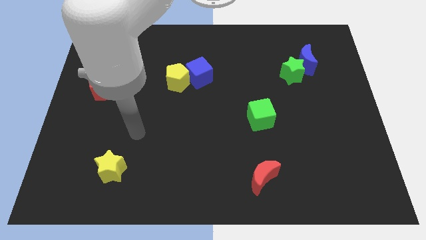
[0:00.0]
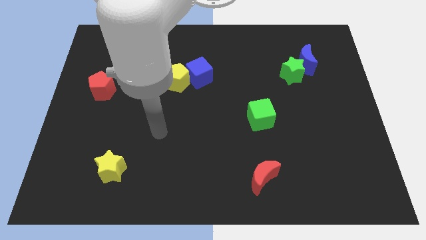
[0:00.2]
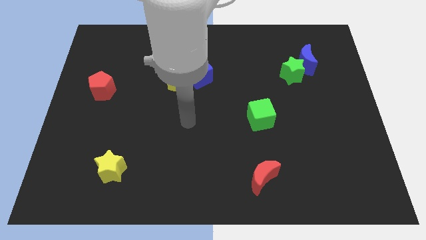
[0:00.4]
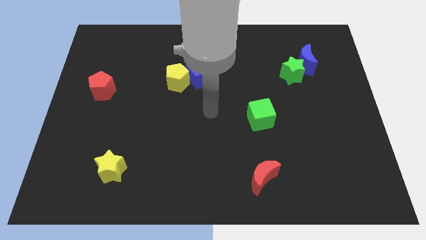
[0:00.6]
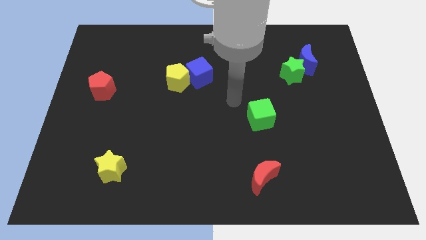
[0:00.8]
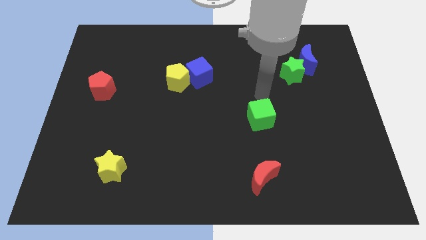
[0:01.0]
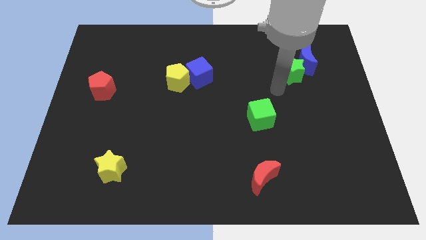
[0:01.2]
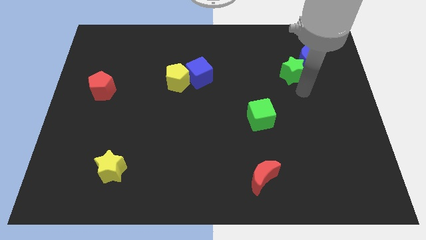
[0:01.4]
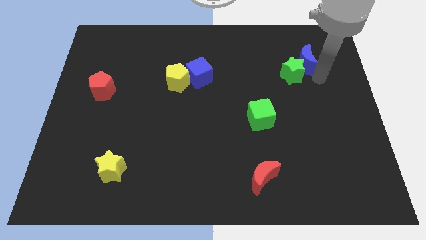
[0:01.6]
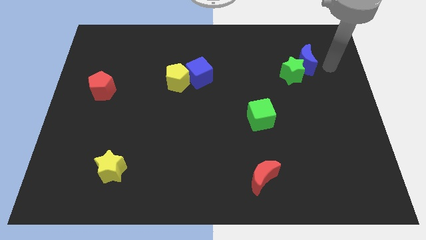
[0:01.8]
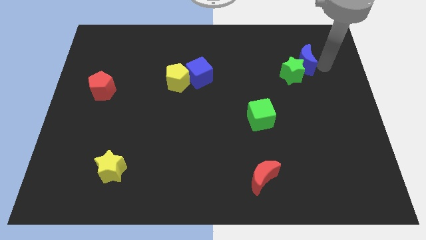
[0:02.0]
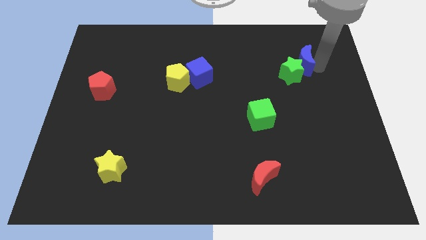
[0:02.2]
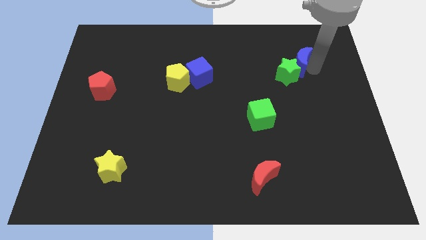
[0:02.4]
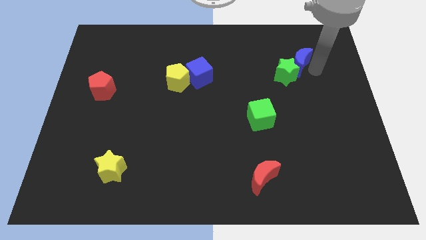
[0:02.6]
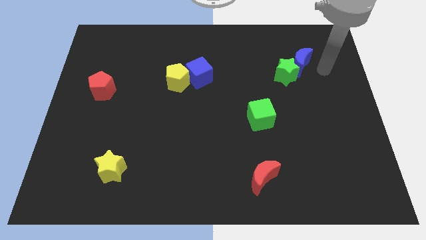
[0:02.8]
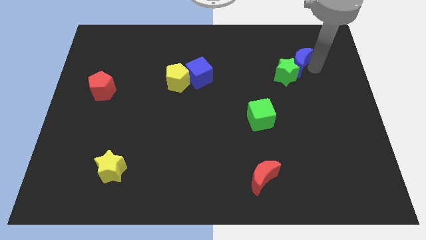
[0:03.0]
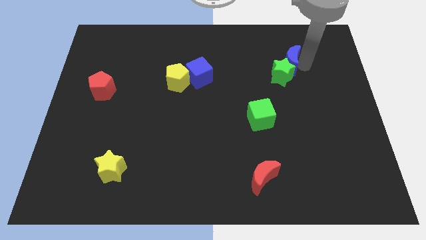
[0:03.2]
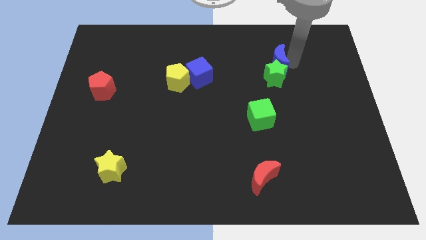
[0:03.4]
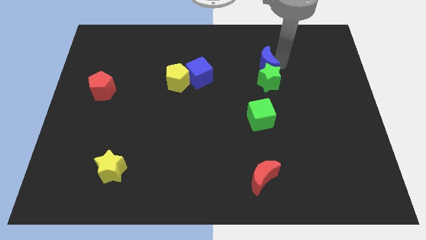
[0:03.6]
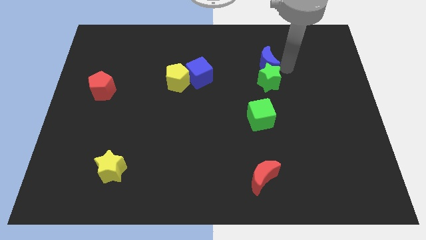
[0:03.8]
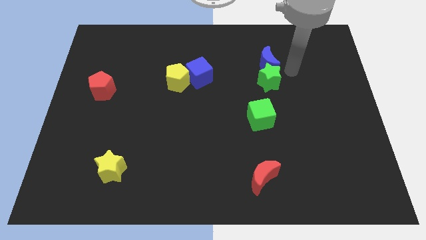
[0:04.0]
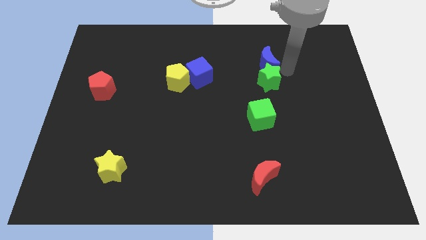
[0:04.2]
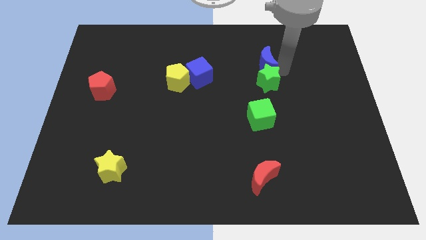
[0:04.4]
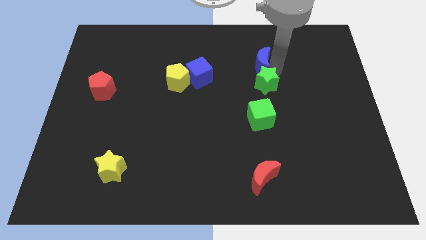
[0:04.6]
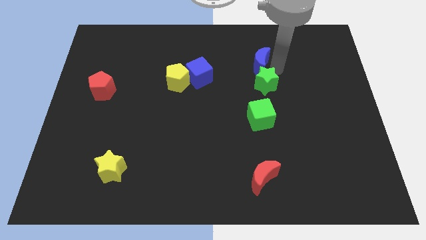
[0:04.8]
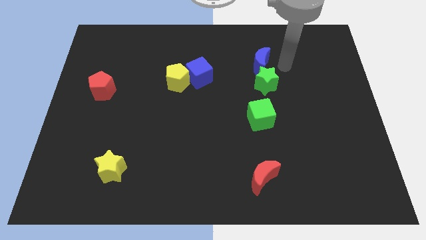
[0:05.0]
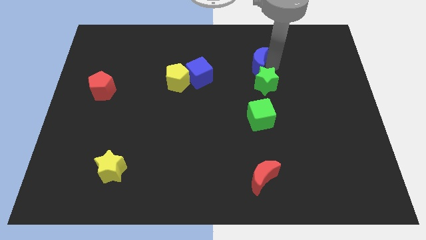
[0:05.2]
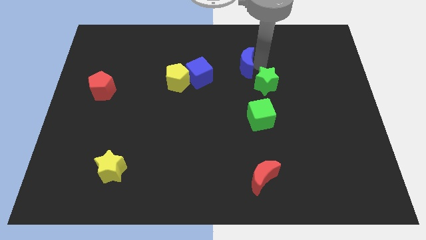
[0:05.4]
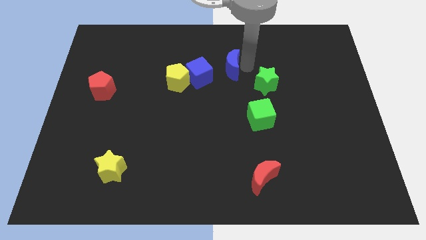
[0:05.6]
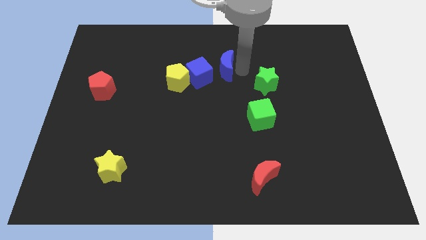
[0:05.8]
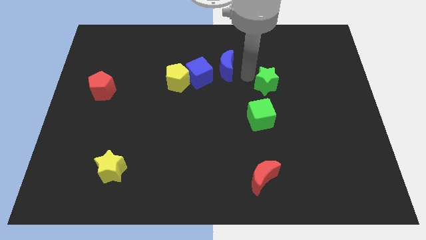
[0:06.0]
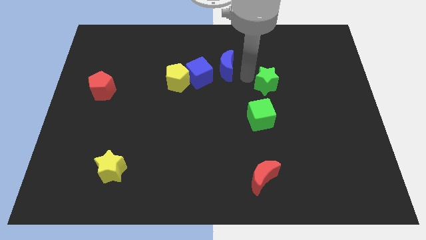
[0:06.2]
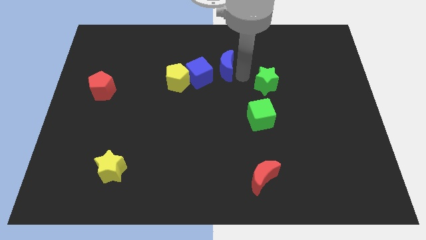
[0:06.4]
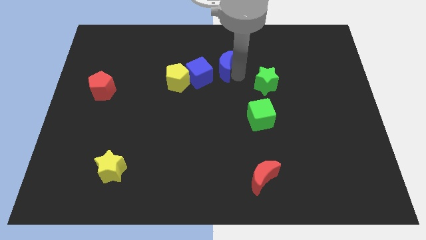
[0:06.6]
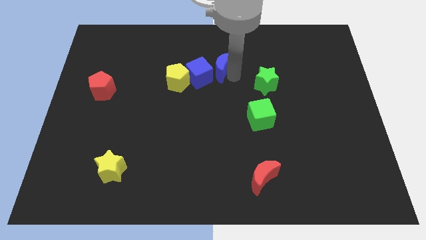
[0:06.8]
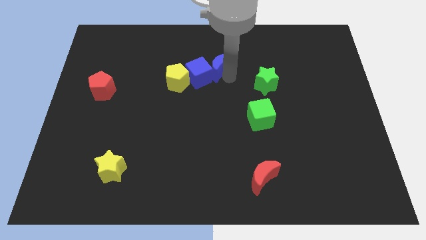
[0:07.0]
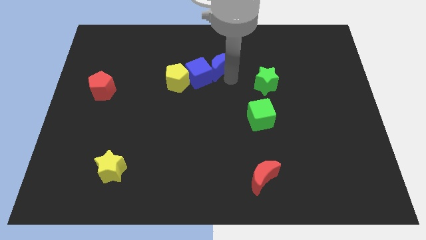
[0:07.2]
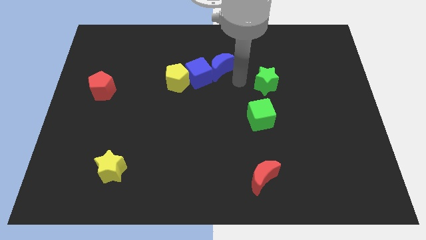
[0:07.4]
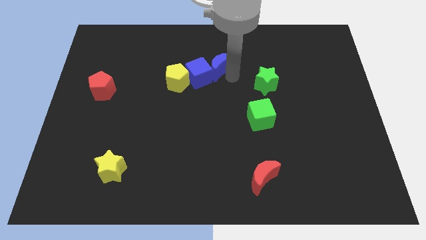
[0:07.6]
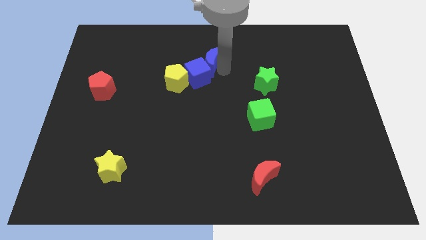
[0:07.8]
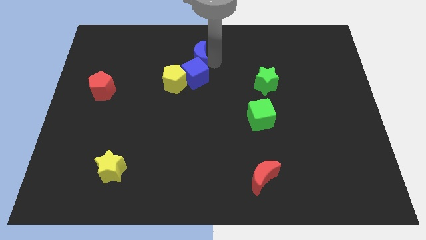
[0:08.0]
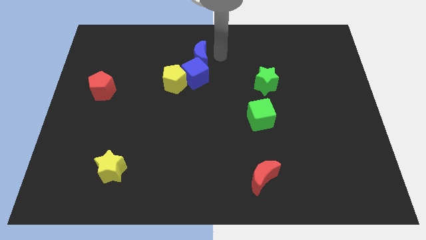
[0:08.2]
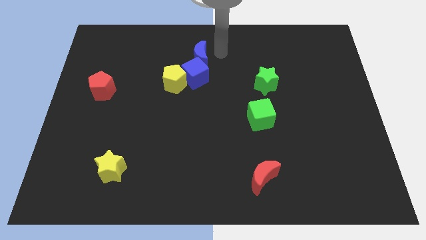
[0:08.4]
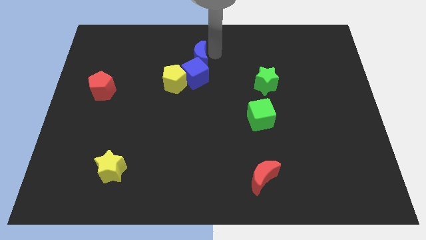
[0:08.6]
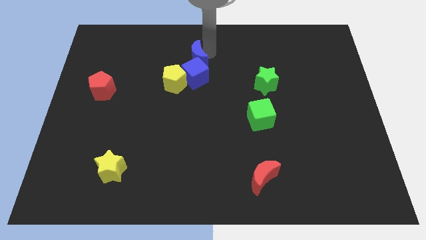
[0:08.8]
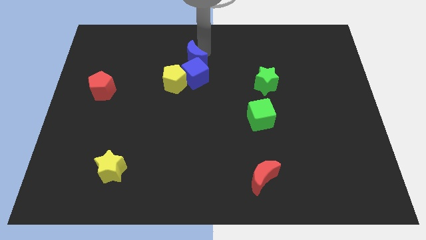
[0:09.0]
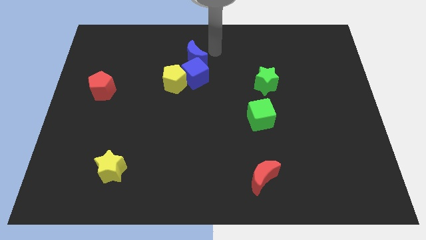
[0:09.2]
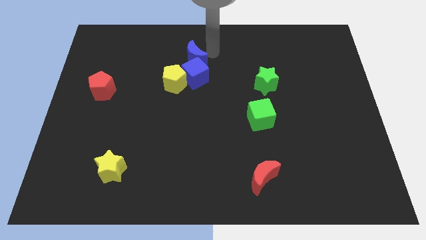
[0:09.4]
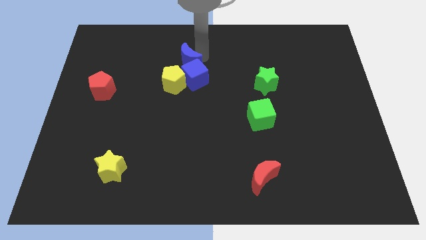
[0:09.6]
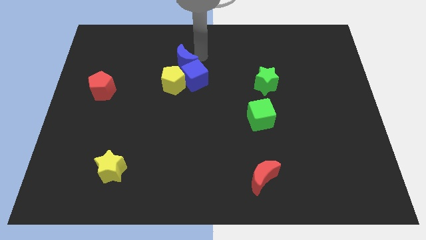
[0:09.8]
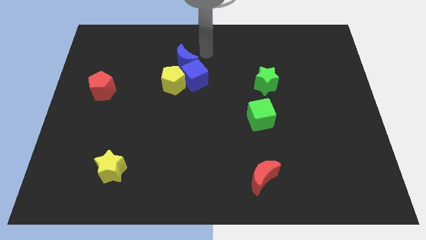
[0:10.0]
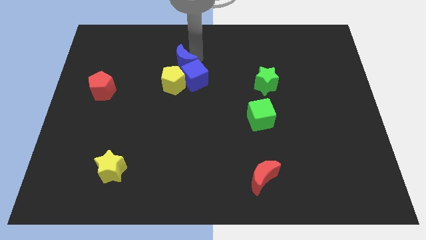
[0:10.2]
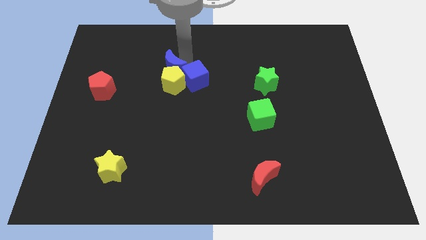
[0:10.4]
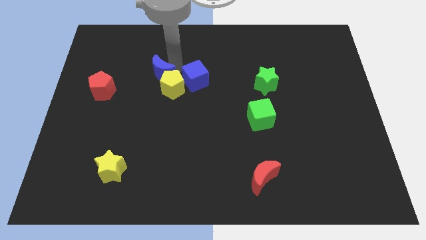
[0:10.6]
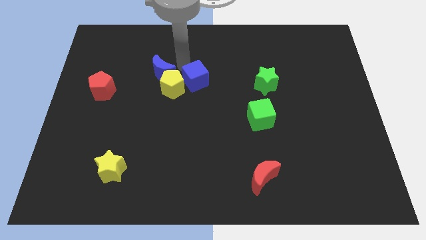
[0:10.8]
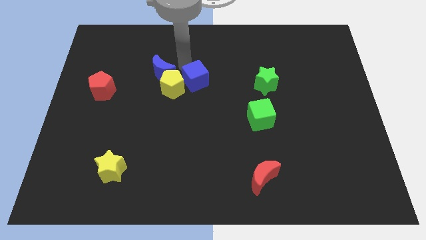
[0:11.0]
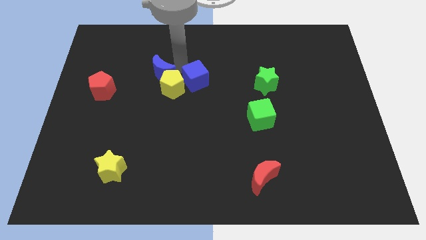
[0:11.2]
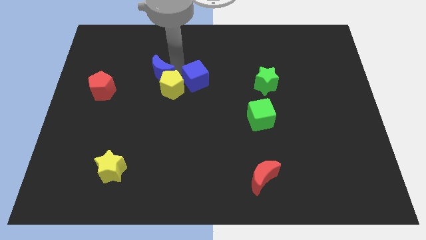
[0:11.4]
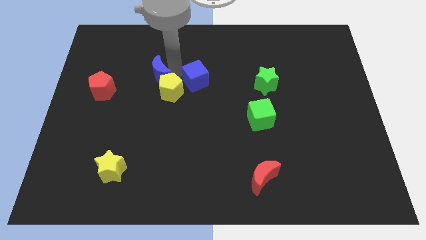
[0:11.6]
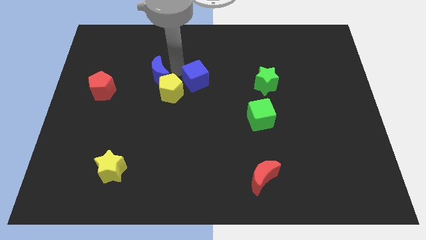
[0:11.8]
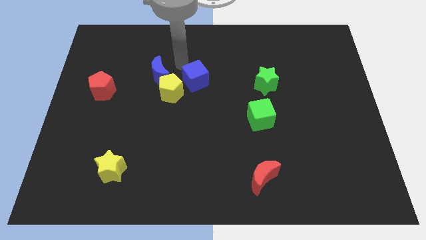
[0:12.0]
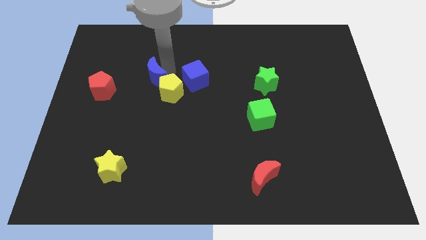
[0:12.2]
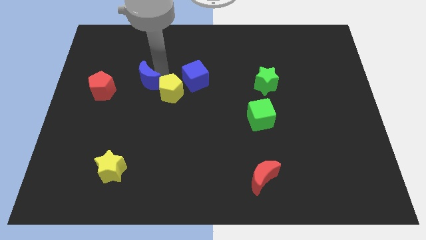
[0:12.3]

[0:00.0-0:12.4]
move the blue moon to the left side of the yellow pentagon
